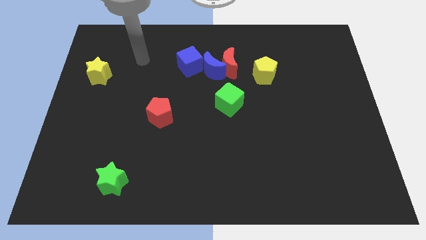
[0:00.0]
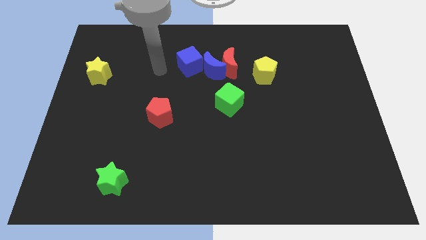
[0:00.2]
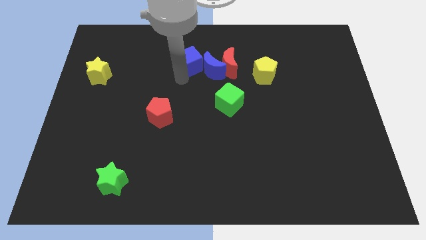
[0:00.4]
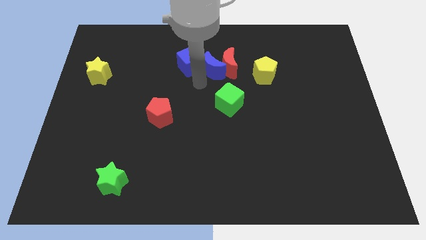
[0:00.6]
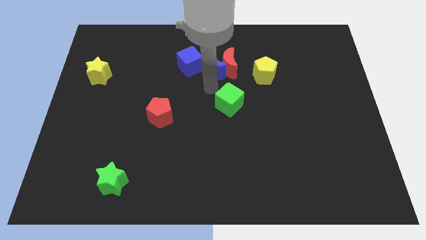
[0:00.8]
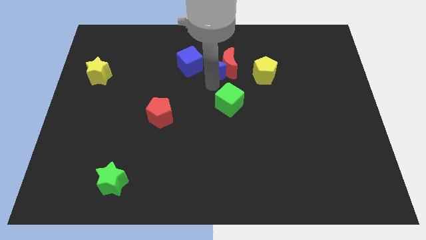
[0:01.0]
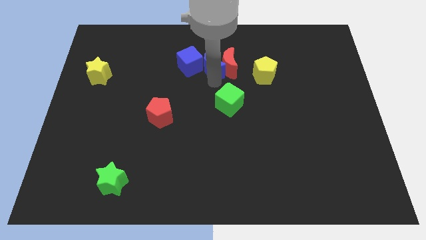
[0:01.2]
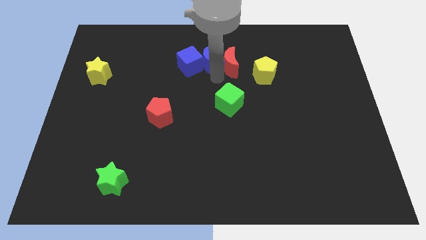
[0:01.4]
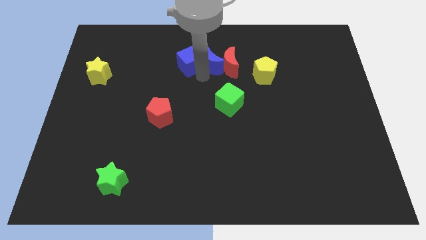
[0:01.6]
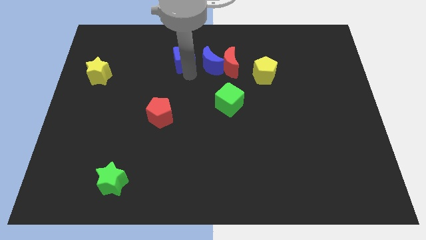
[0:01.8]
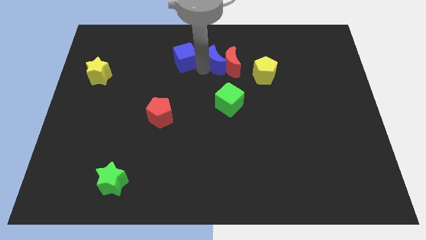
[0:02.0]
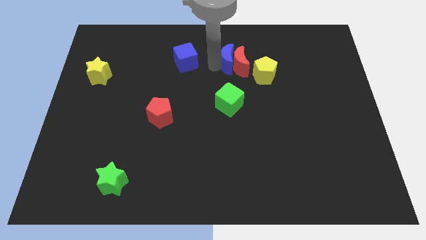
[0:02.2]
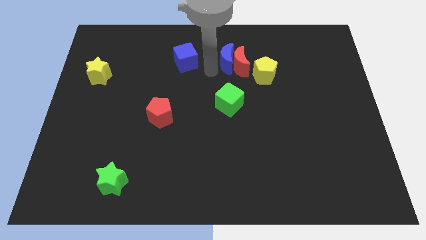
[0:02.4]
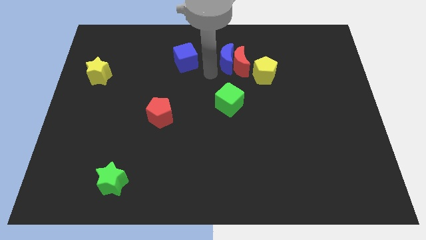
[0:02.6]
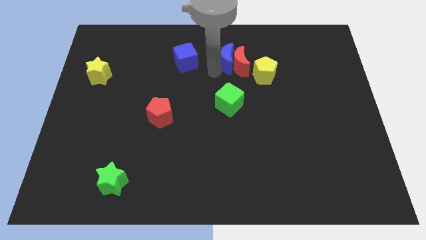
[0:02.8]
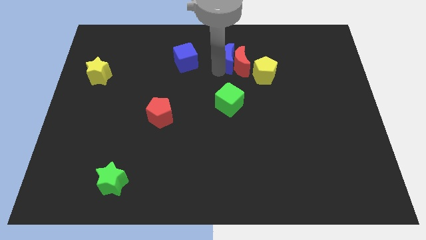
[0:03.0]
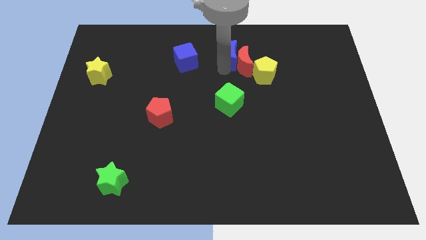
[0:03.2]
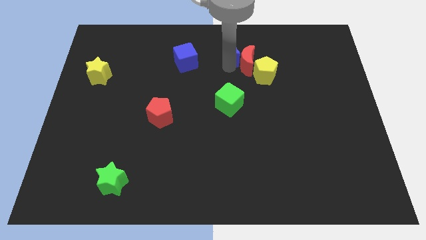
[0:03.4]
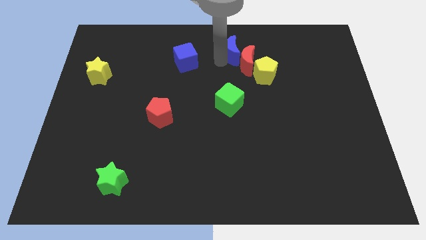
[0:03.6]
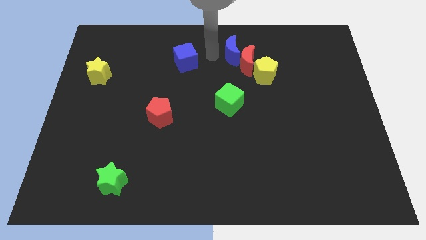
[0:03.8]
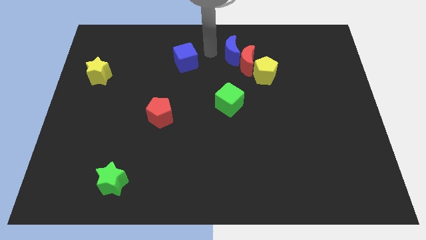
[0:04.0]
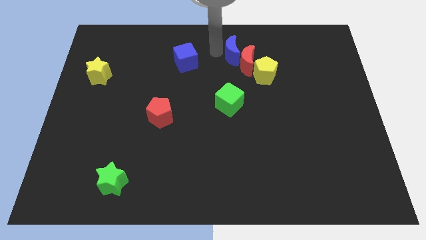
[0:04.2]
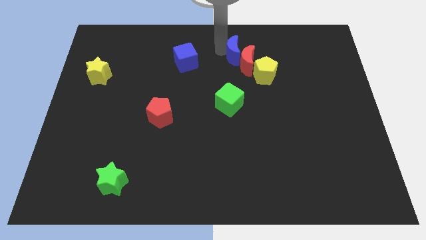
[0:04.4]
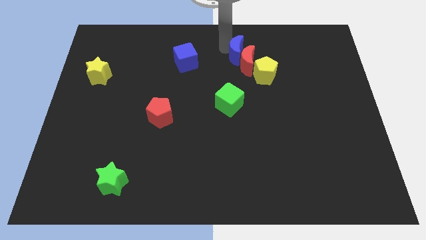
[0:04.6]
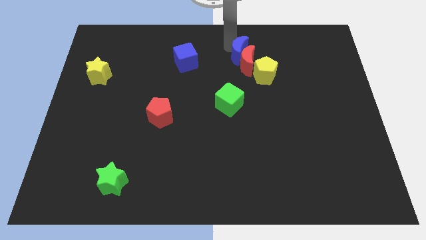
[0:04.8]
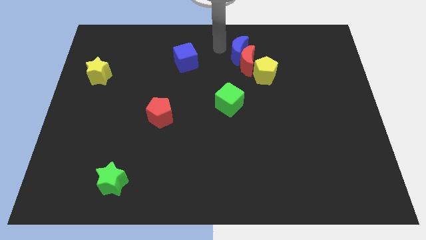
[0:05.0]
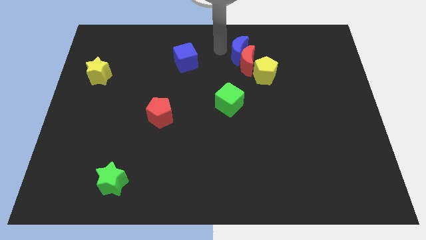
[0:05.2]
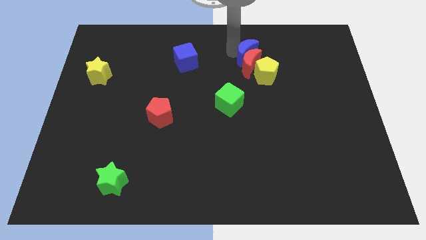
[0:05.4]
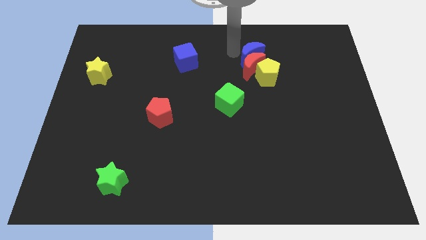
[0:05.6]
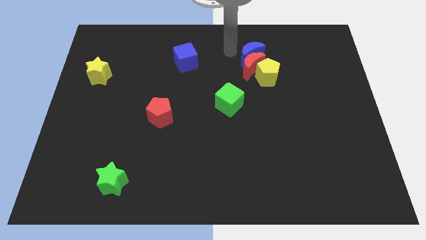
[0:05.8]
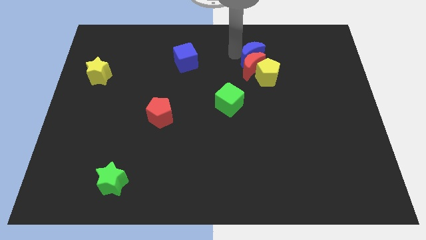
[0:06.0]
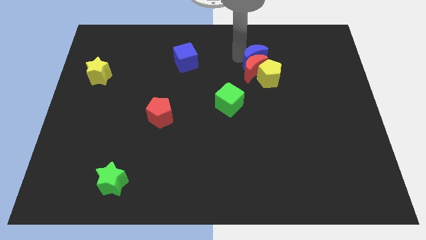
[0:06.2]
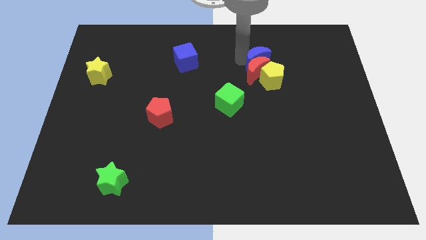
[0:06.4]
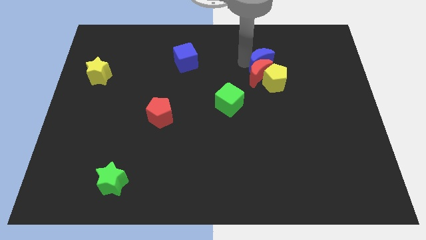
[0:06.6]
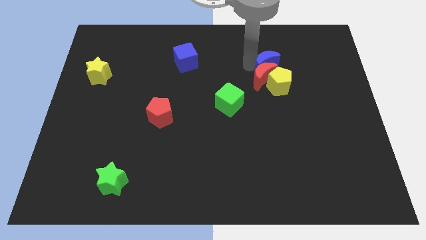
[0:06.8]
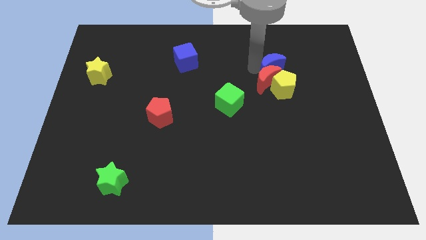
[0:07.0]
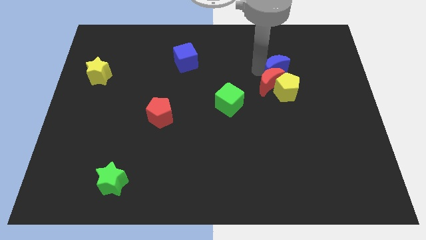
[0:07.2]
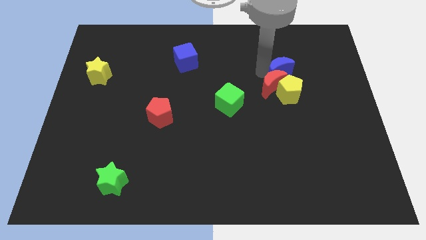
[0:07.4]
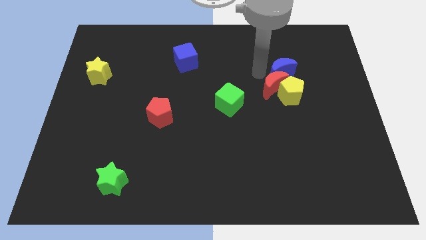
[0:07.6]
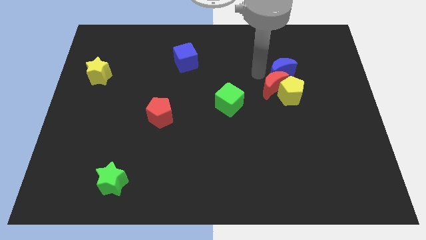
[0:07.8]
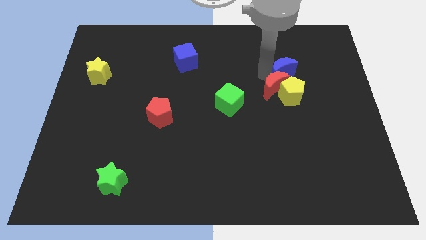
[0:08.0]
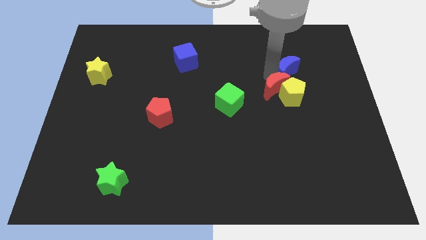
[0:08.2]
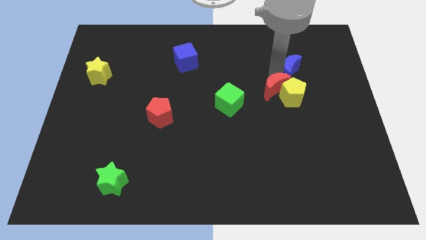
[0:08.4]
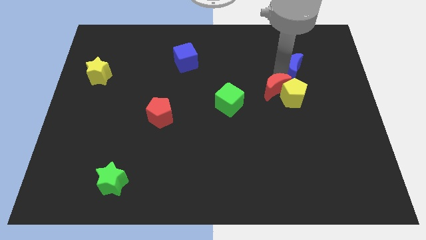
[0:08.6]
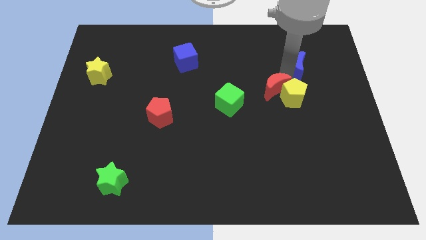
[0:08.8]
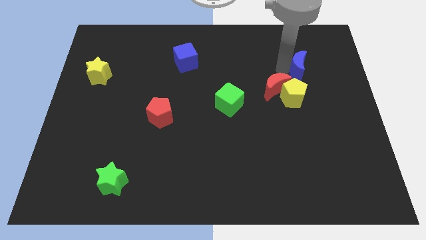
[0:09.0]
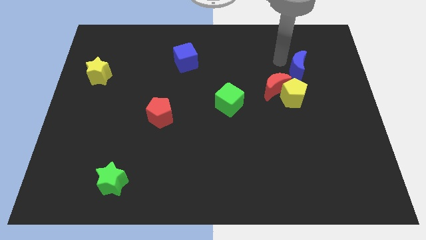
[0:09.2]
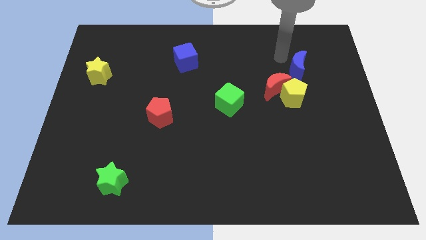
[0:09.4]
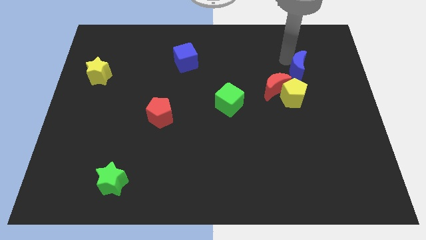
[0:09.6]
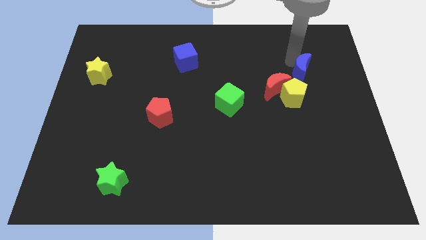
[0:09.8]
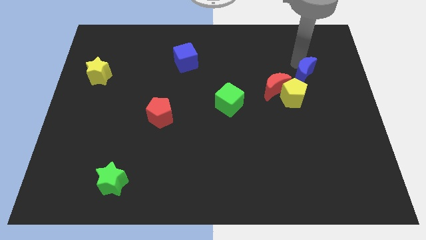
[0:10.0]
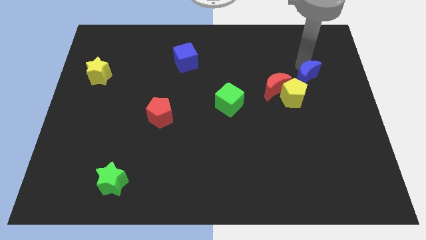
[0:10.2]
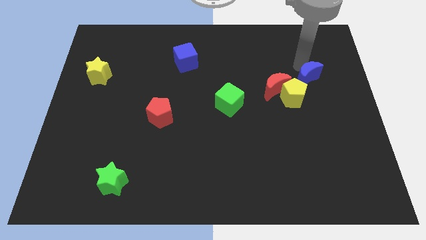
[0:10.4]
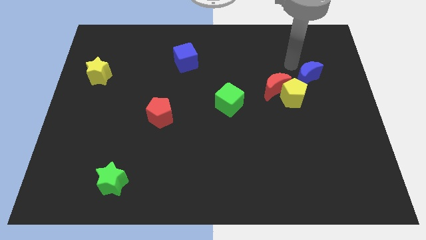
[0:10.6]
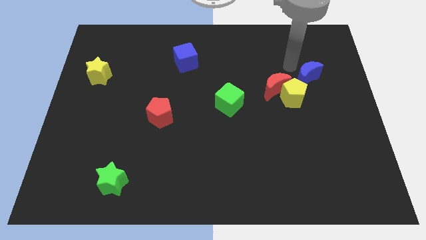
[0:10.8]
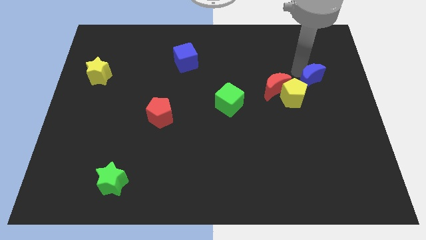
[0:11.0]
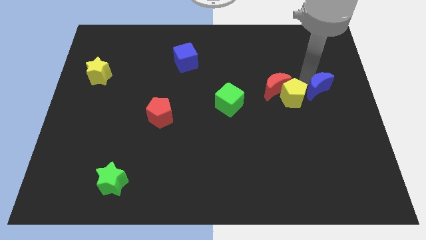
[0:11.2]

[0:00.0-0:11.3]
put the blue moon to the center right

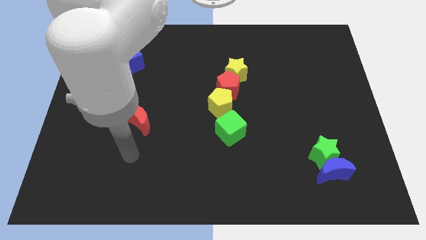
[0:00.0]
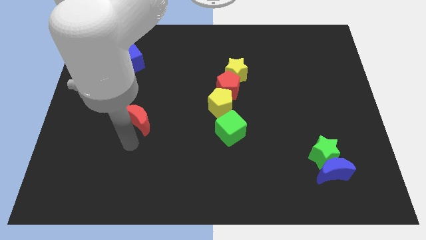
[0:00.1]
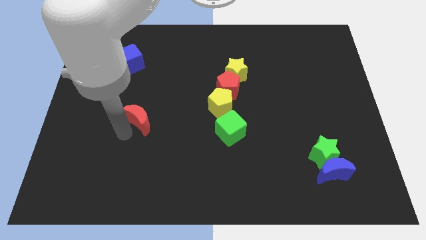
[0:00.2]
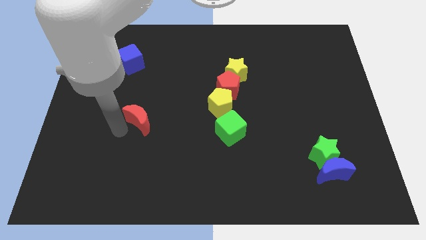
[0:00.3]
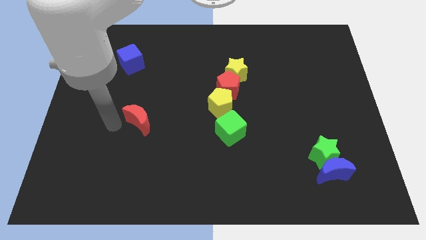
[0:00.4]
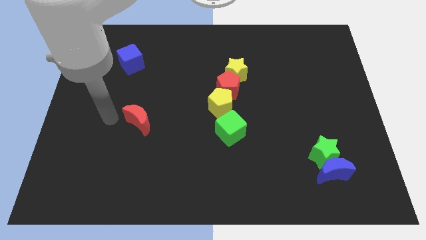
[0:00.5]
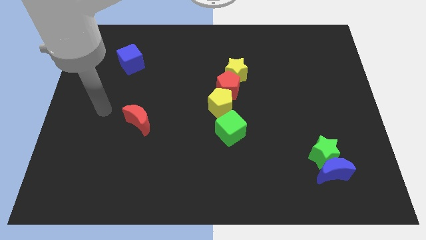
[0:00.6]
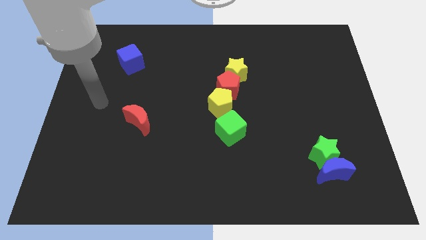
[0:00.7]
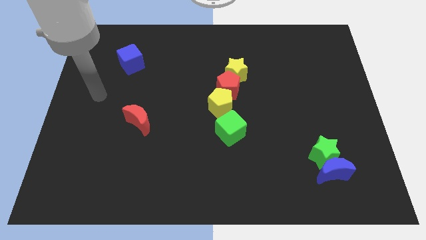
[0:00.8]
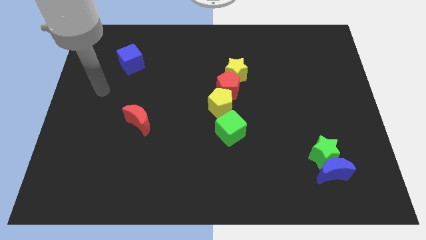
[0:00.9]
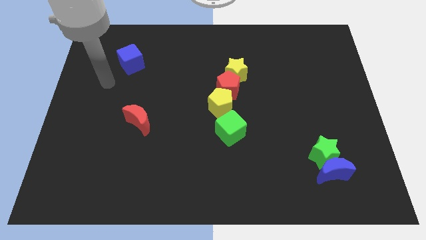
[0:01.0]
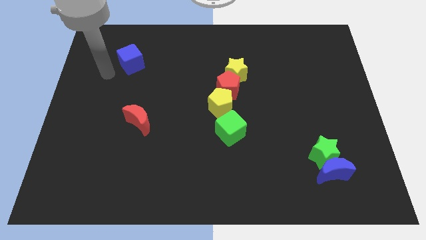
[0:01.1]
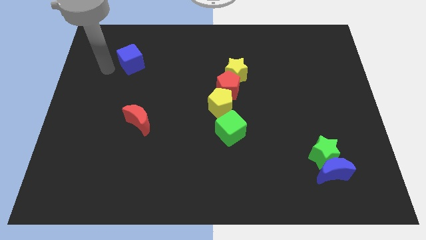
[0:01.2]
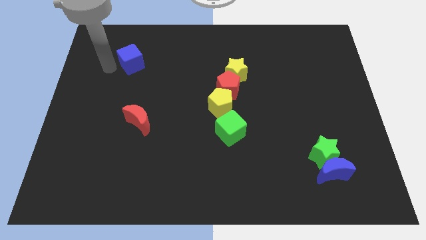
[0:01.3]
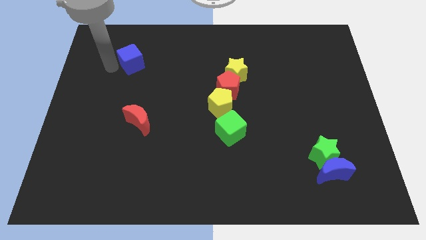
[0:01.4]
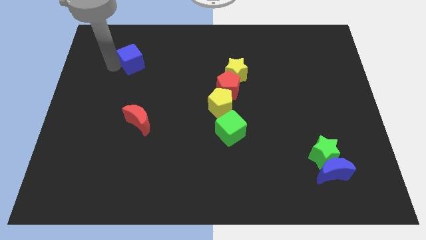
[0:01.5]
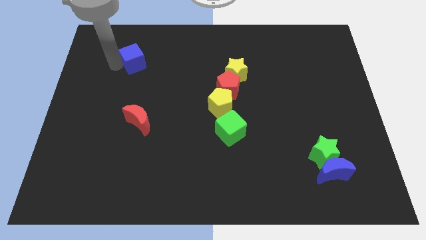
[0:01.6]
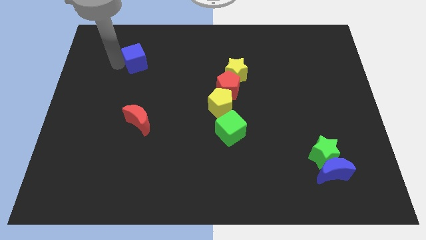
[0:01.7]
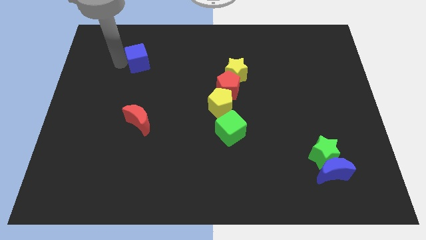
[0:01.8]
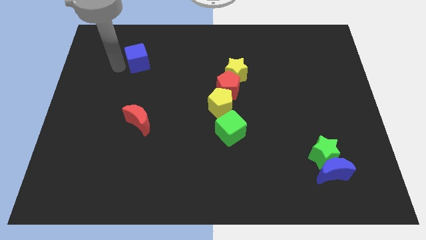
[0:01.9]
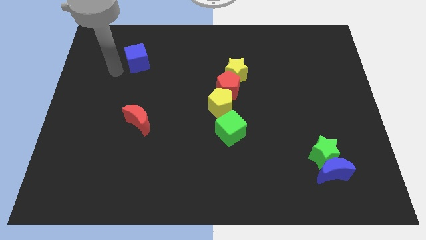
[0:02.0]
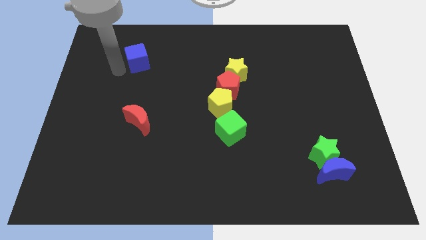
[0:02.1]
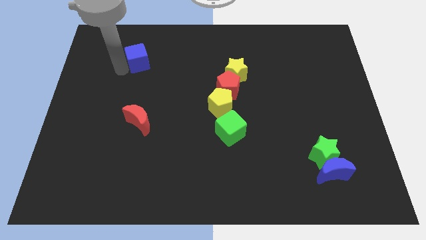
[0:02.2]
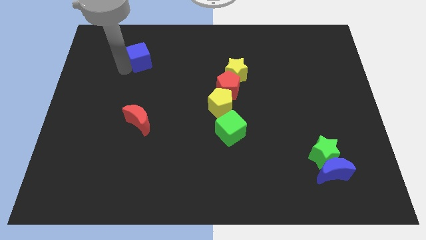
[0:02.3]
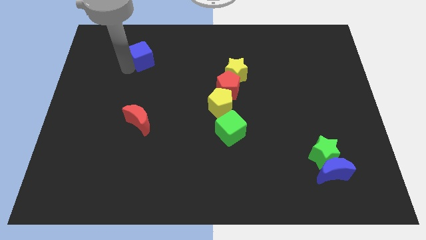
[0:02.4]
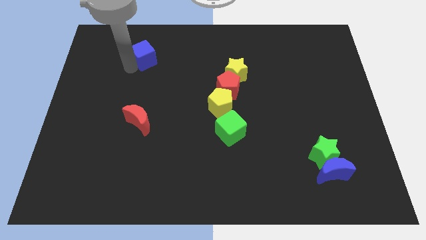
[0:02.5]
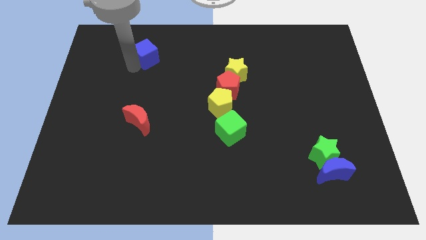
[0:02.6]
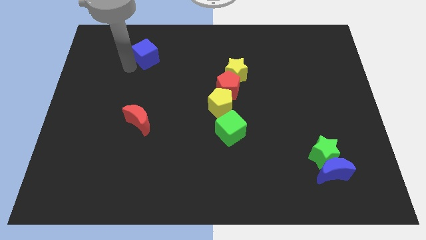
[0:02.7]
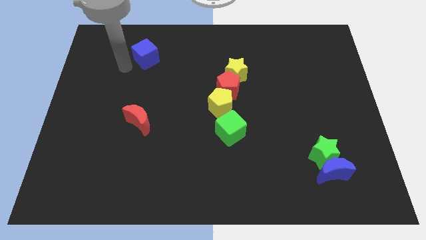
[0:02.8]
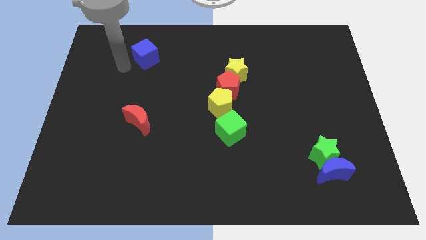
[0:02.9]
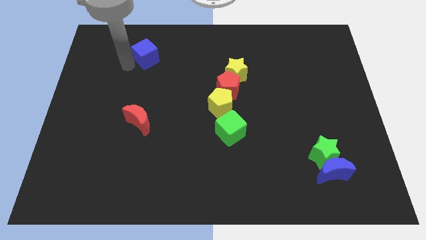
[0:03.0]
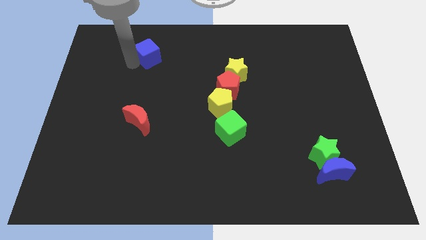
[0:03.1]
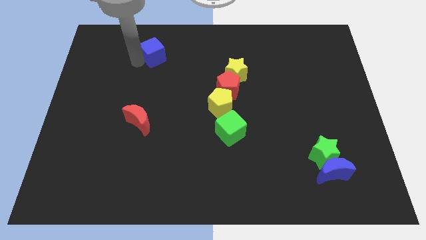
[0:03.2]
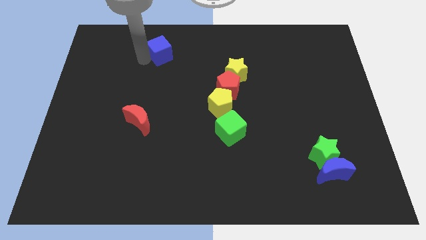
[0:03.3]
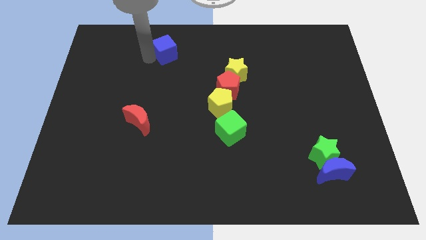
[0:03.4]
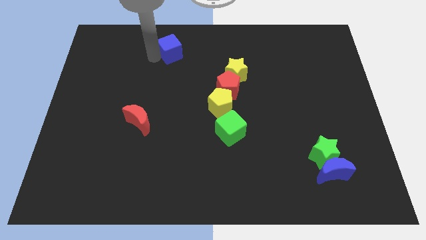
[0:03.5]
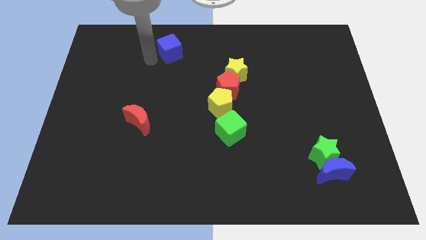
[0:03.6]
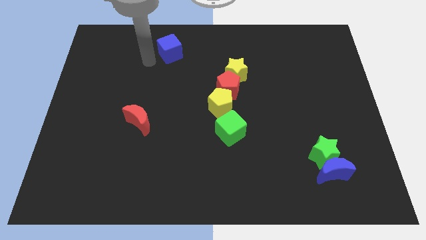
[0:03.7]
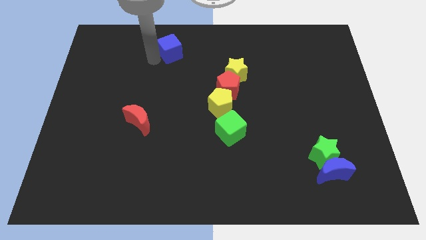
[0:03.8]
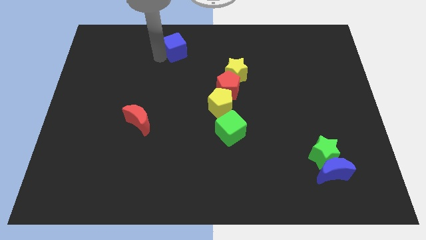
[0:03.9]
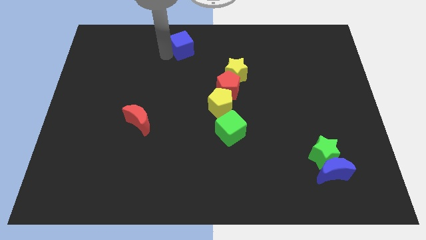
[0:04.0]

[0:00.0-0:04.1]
put the blue cube to the top side
